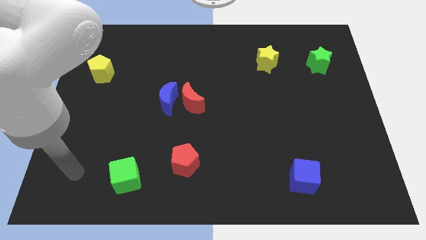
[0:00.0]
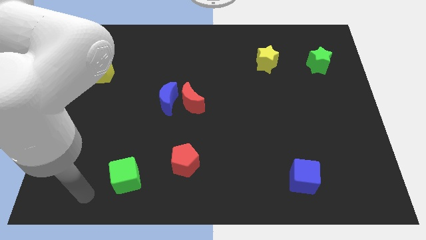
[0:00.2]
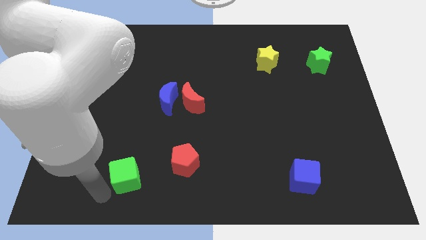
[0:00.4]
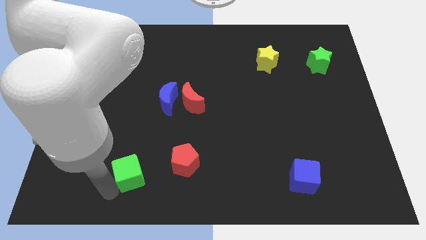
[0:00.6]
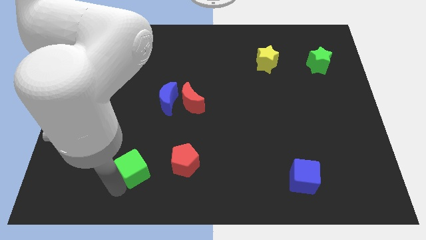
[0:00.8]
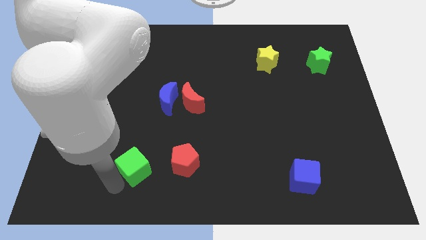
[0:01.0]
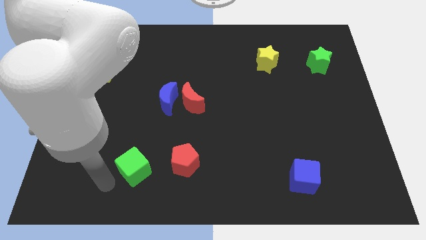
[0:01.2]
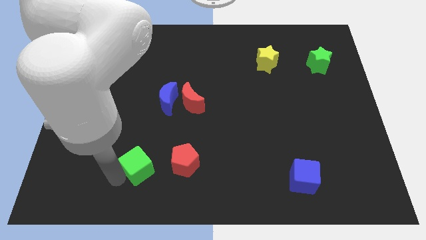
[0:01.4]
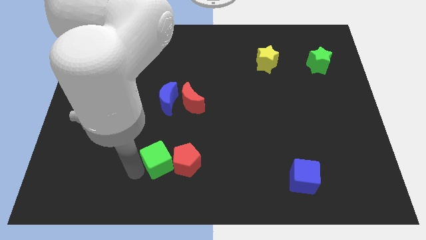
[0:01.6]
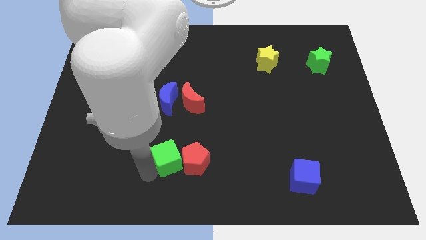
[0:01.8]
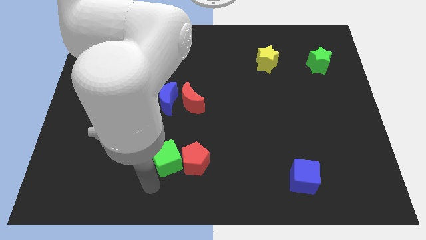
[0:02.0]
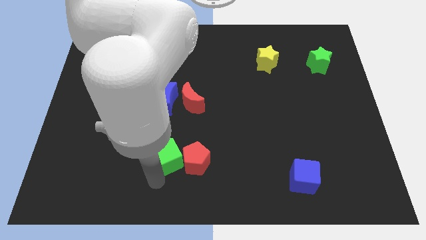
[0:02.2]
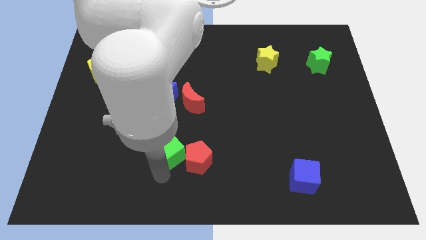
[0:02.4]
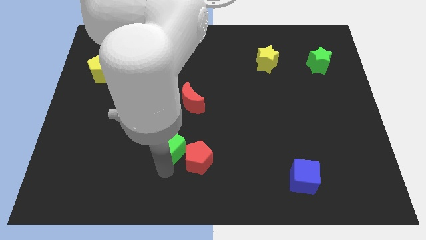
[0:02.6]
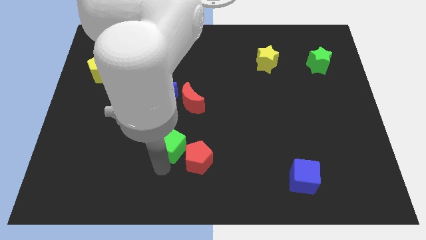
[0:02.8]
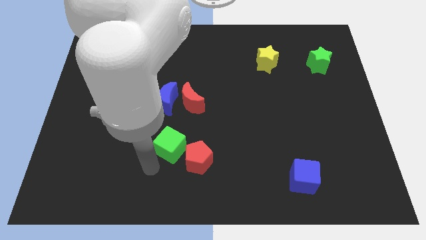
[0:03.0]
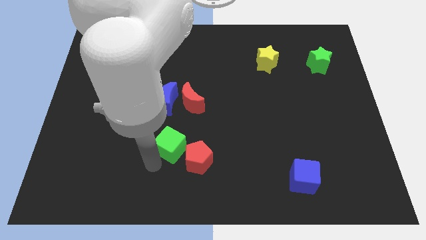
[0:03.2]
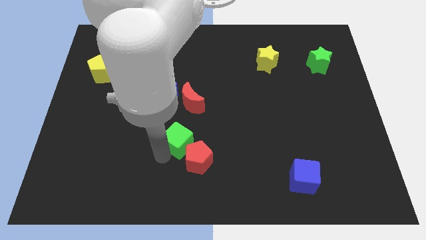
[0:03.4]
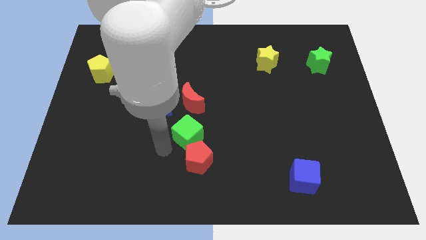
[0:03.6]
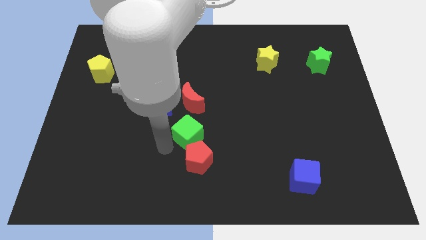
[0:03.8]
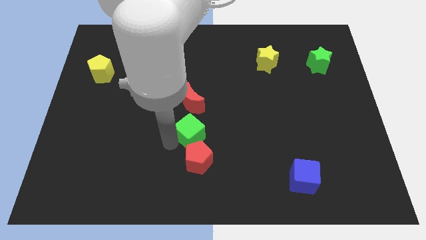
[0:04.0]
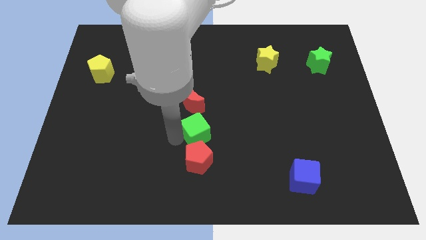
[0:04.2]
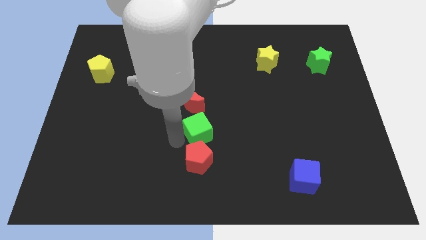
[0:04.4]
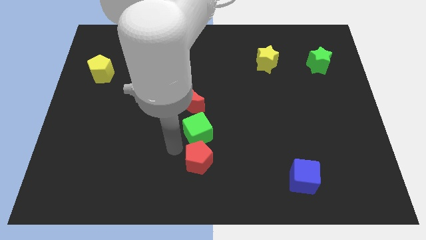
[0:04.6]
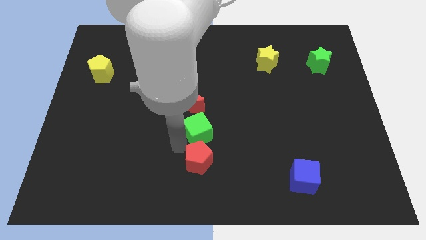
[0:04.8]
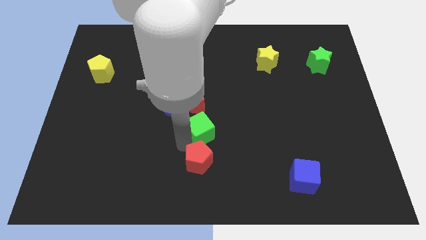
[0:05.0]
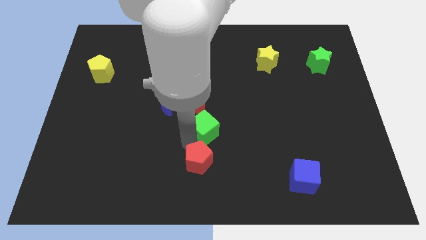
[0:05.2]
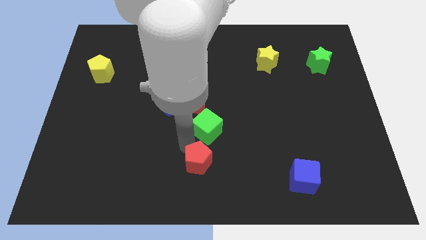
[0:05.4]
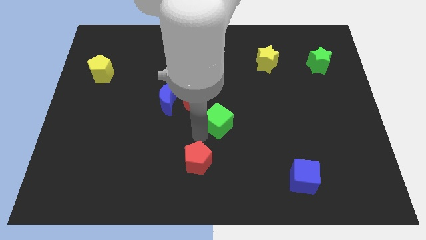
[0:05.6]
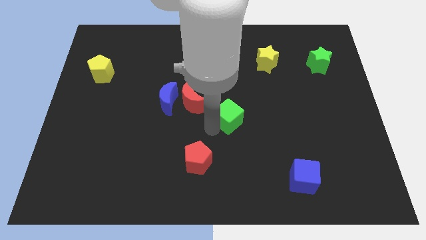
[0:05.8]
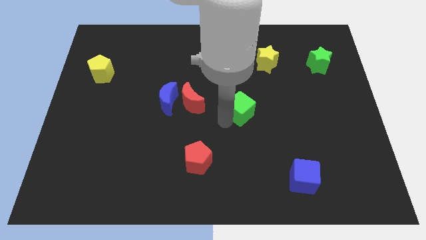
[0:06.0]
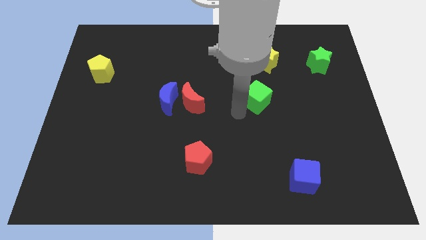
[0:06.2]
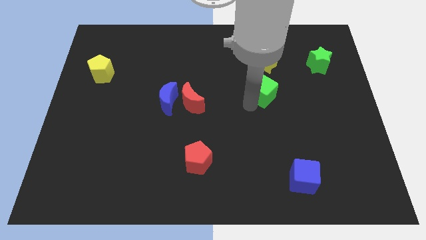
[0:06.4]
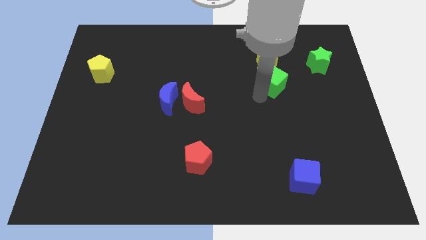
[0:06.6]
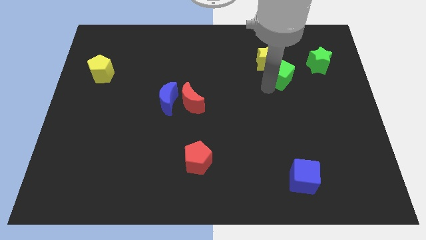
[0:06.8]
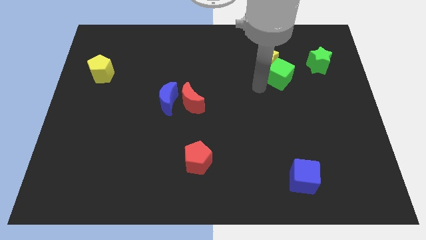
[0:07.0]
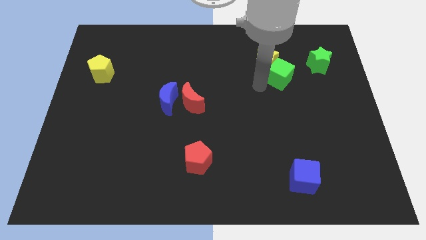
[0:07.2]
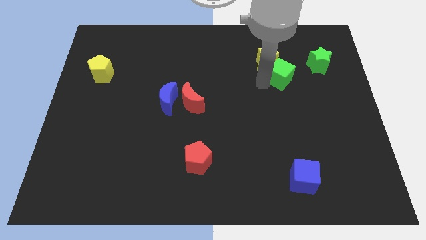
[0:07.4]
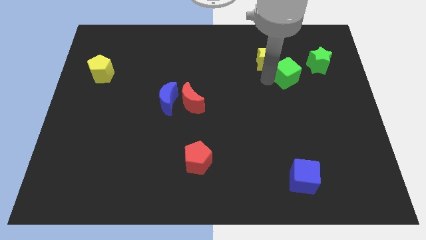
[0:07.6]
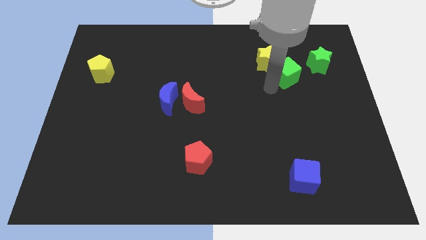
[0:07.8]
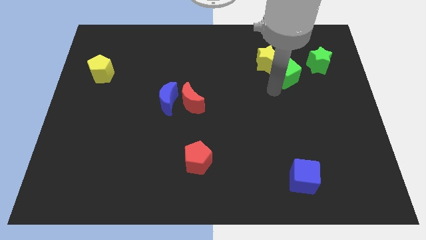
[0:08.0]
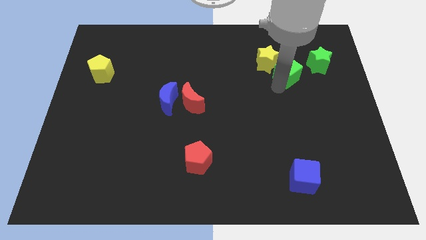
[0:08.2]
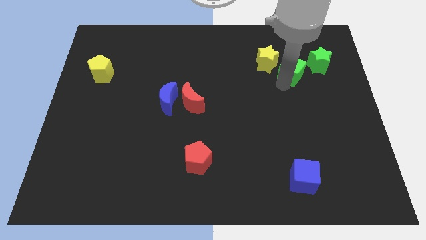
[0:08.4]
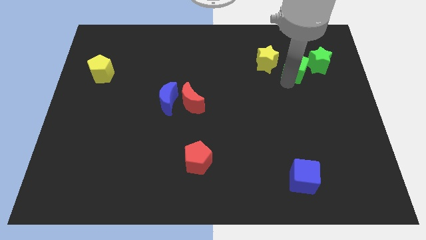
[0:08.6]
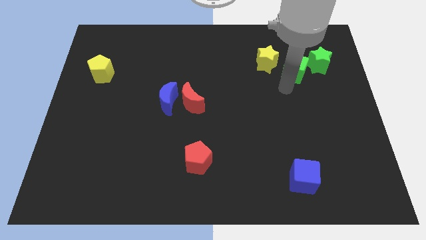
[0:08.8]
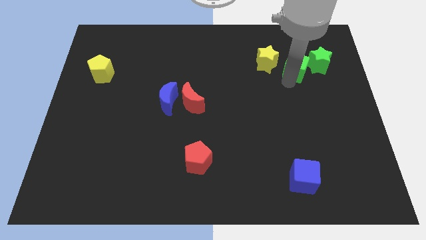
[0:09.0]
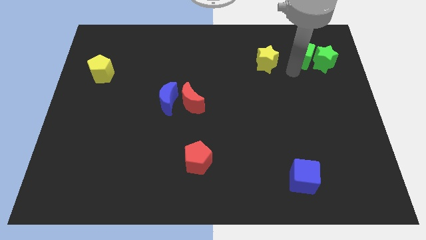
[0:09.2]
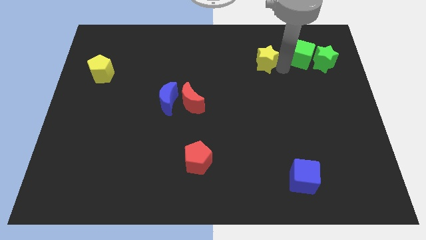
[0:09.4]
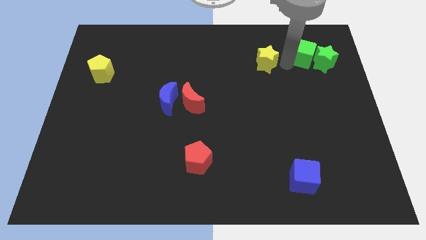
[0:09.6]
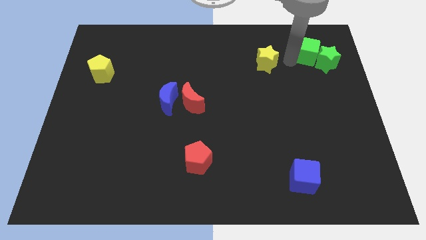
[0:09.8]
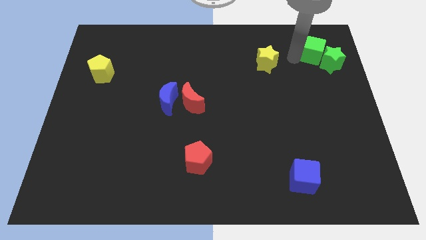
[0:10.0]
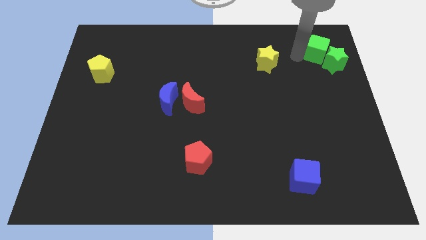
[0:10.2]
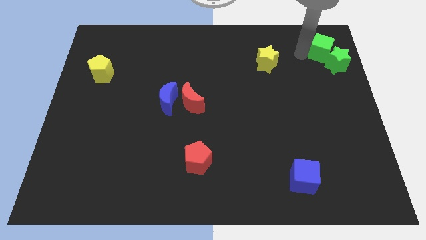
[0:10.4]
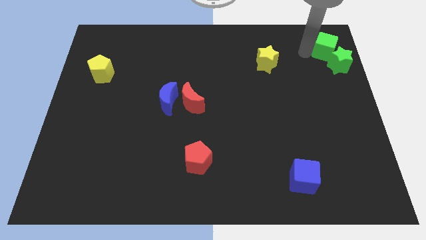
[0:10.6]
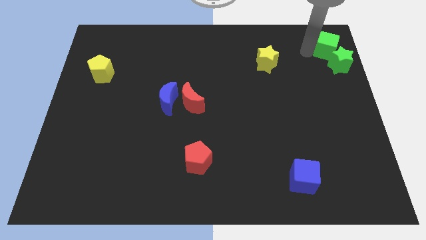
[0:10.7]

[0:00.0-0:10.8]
move the green cube to the top right corner

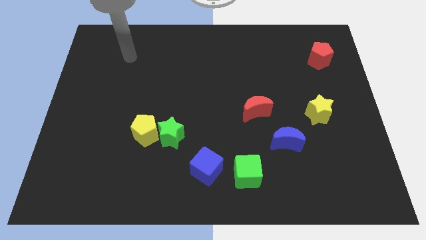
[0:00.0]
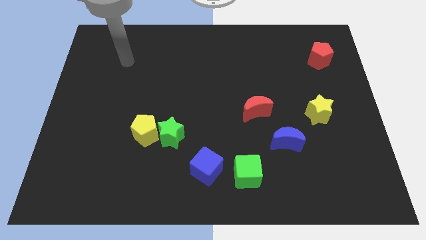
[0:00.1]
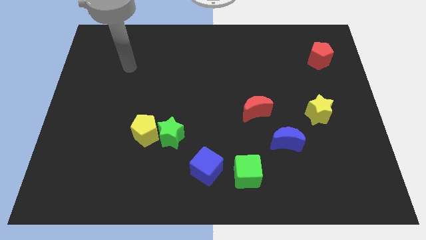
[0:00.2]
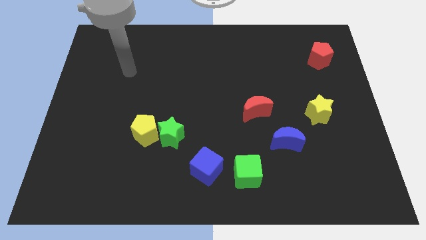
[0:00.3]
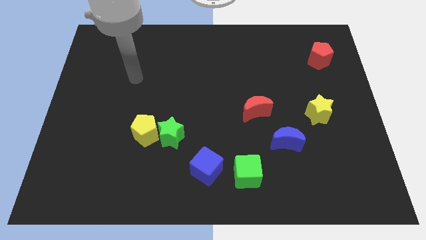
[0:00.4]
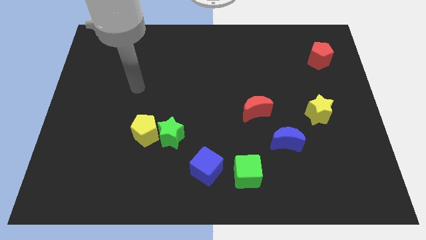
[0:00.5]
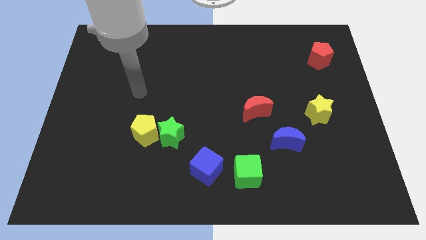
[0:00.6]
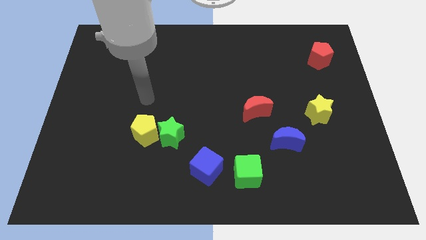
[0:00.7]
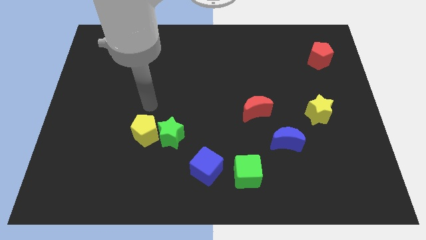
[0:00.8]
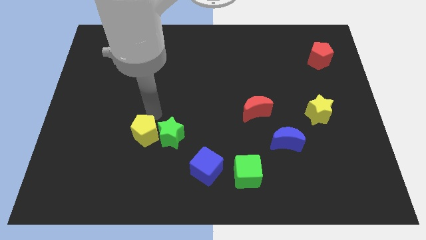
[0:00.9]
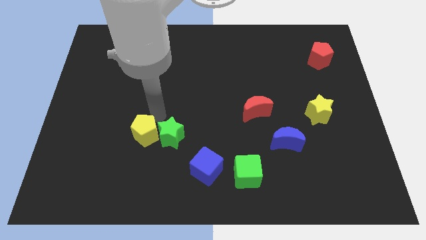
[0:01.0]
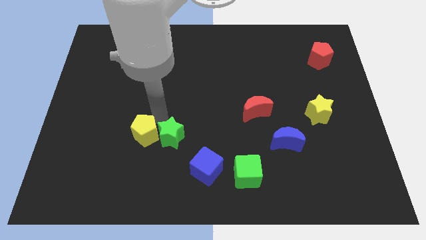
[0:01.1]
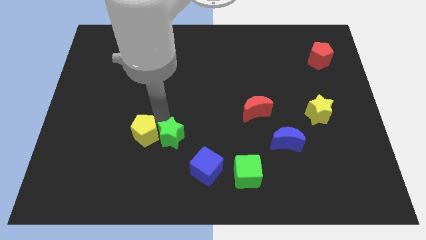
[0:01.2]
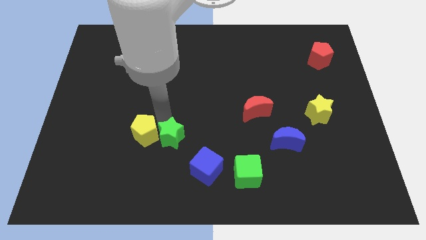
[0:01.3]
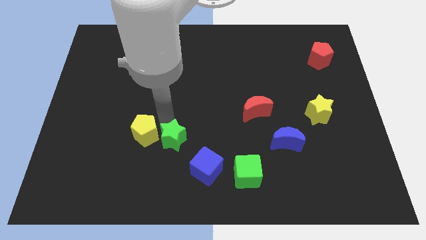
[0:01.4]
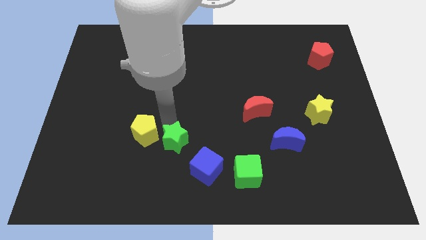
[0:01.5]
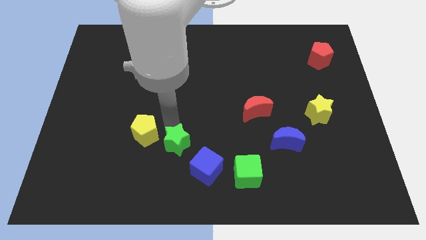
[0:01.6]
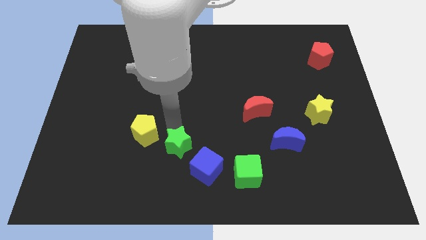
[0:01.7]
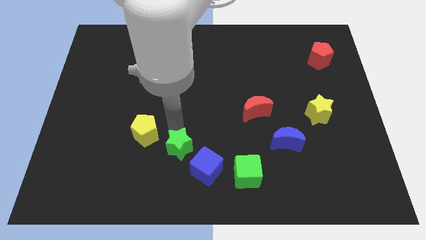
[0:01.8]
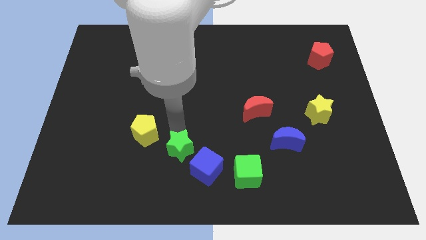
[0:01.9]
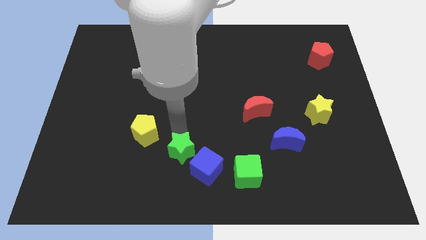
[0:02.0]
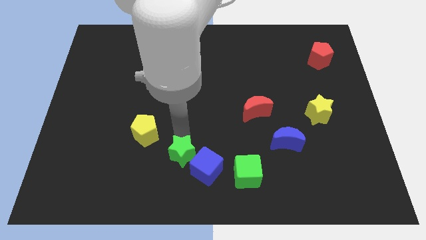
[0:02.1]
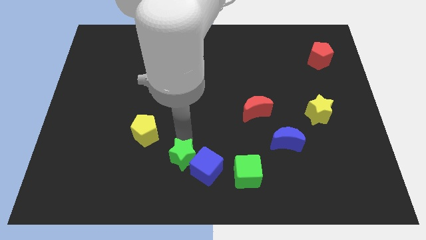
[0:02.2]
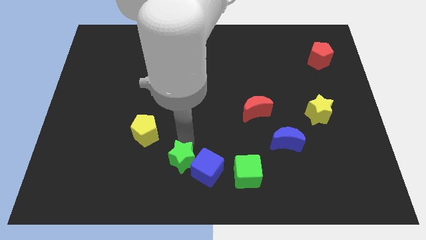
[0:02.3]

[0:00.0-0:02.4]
push the green star to the bottom
